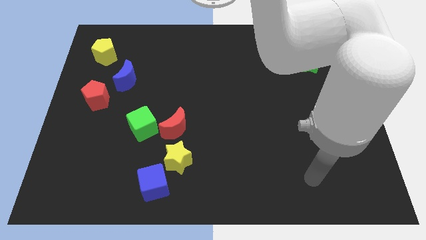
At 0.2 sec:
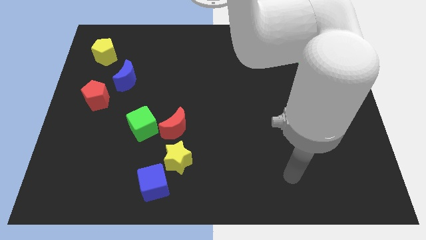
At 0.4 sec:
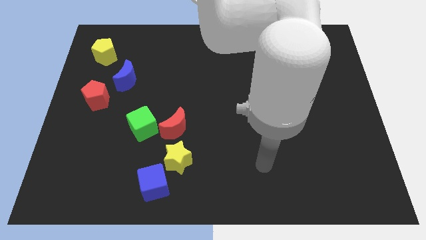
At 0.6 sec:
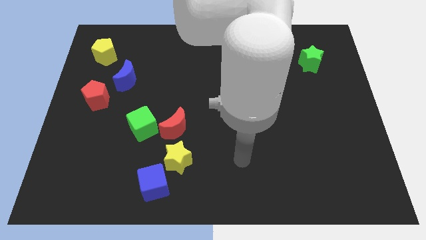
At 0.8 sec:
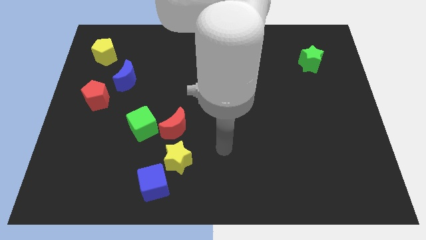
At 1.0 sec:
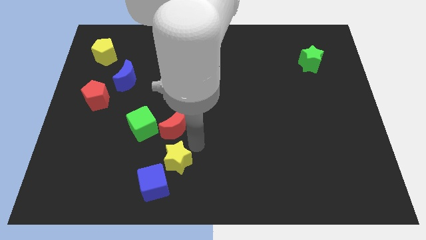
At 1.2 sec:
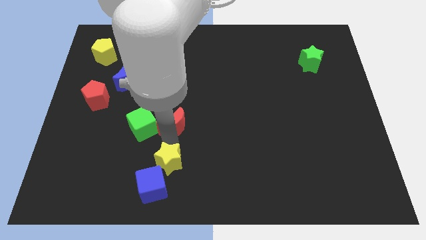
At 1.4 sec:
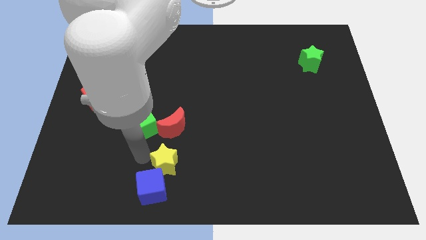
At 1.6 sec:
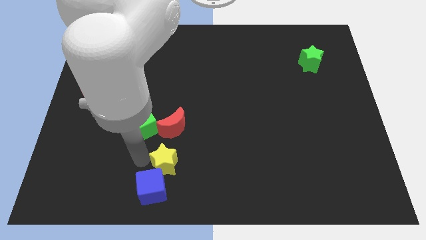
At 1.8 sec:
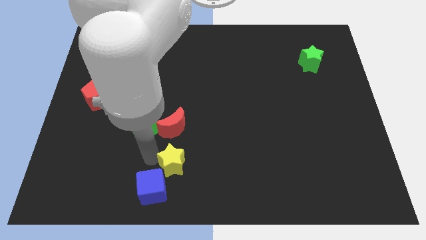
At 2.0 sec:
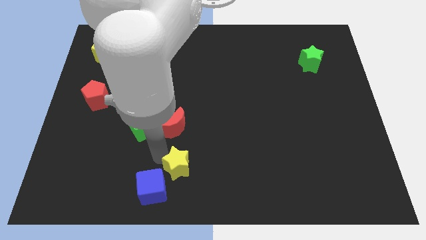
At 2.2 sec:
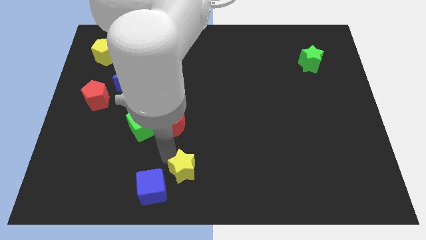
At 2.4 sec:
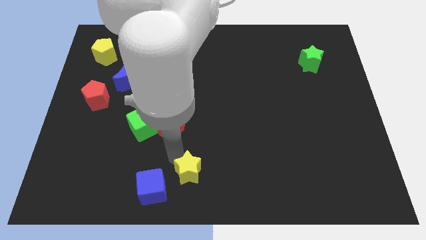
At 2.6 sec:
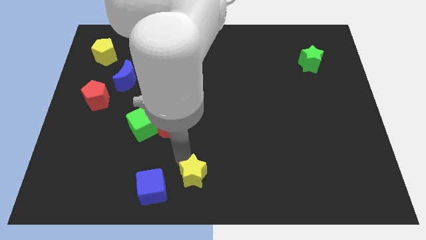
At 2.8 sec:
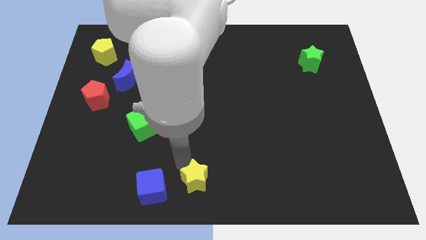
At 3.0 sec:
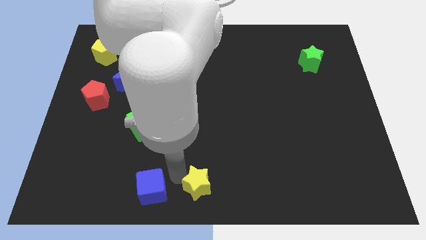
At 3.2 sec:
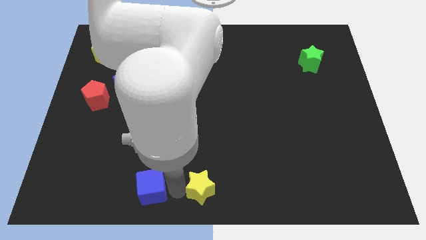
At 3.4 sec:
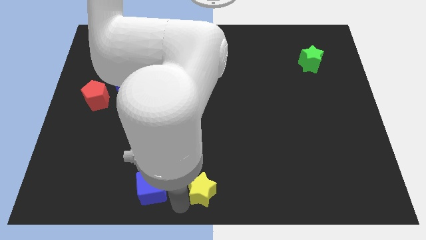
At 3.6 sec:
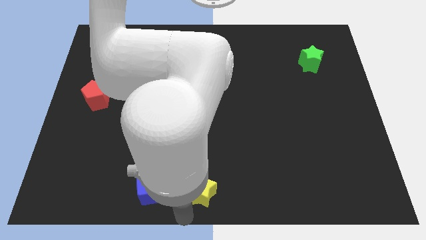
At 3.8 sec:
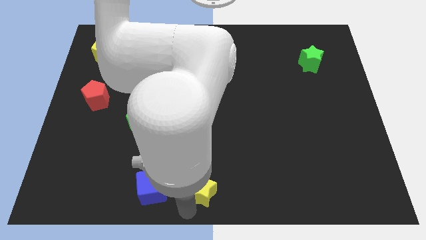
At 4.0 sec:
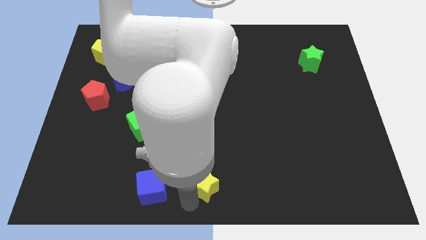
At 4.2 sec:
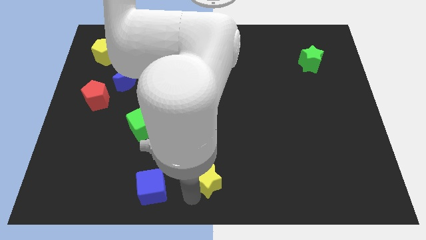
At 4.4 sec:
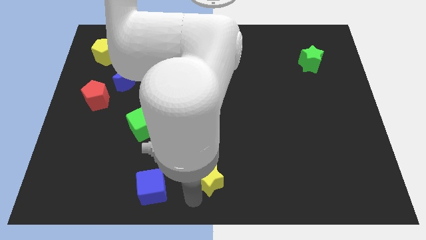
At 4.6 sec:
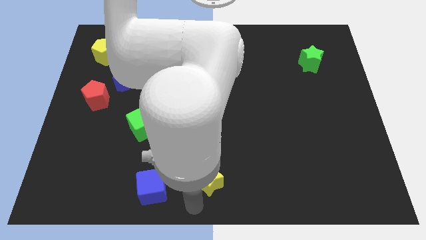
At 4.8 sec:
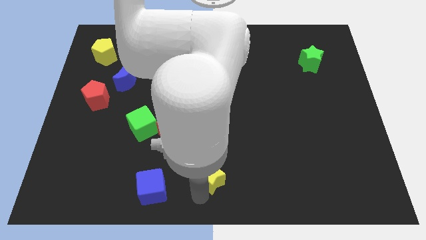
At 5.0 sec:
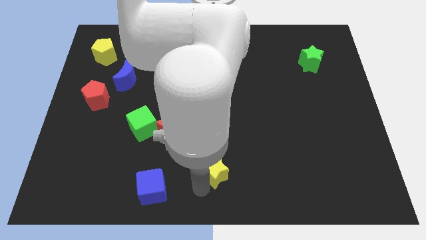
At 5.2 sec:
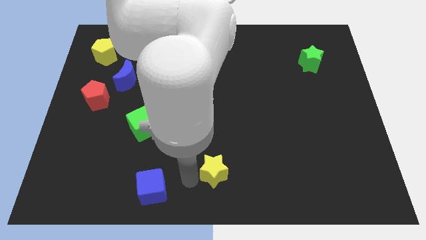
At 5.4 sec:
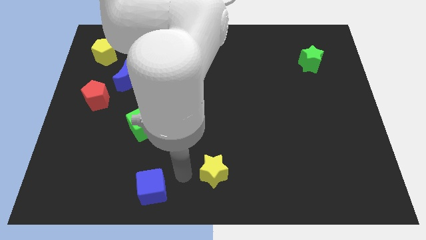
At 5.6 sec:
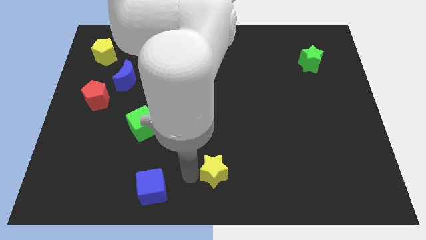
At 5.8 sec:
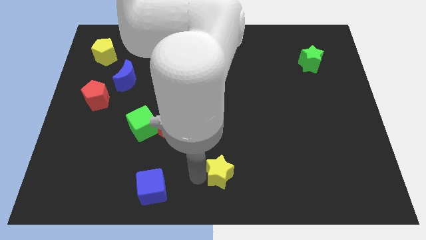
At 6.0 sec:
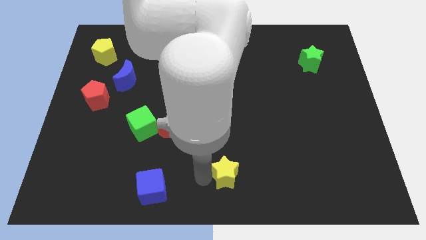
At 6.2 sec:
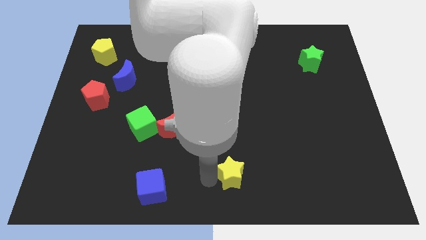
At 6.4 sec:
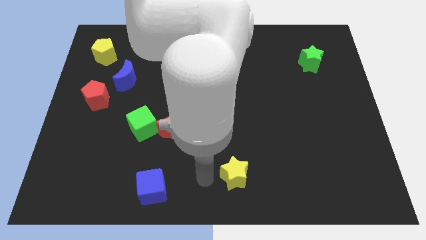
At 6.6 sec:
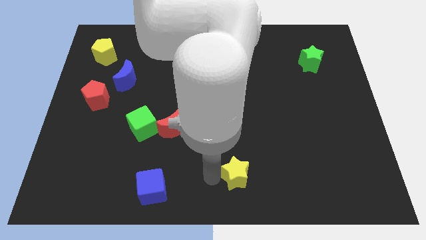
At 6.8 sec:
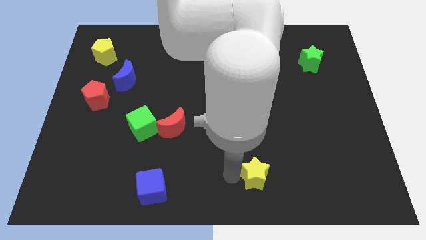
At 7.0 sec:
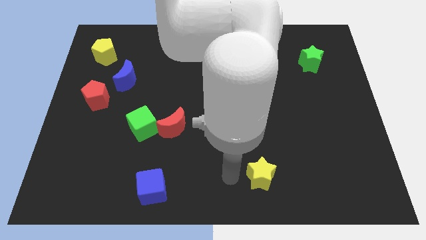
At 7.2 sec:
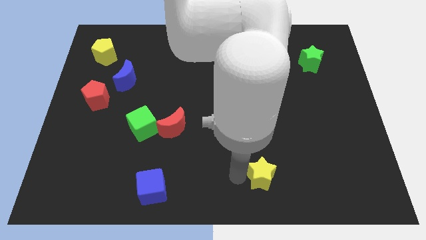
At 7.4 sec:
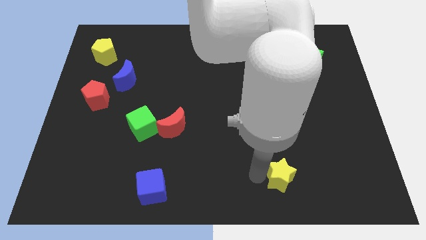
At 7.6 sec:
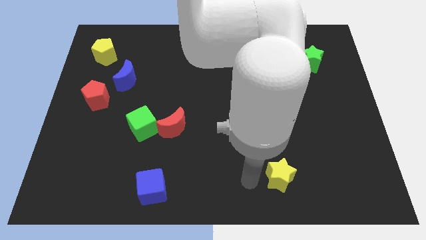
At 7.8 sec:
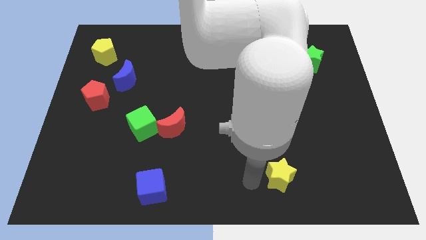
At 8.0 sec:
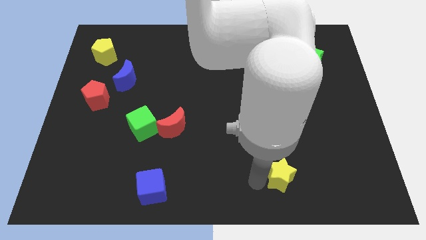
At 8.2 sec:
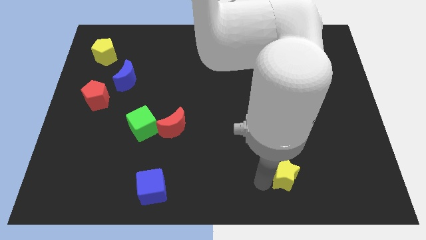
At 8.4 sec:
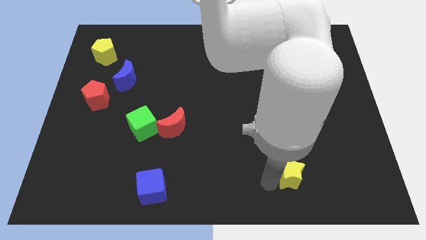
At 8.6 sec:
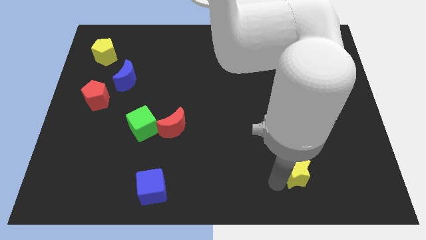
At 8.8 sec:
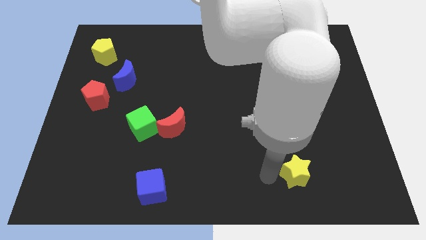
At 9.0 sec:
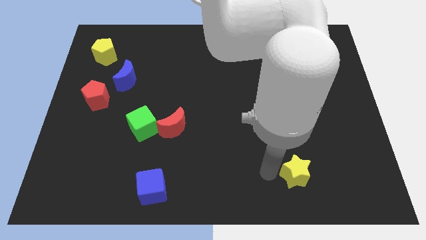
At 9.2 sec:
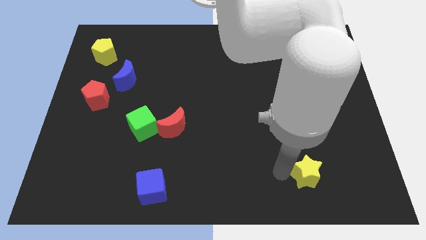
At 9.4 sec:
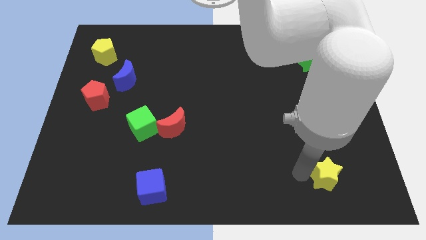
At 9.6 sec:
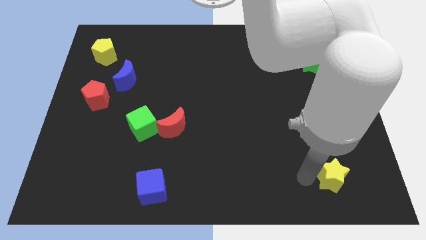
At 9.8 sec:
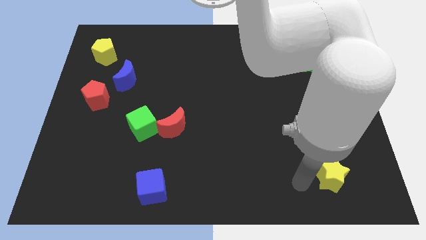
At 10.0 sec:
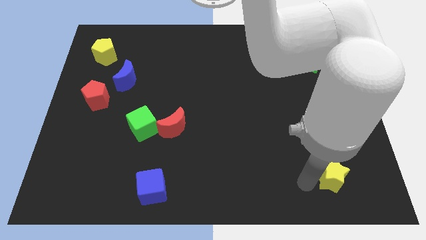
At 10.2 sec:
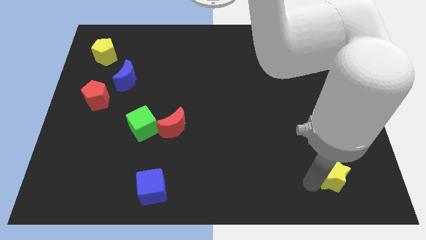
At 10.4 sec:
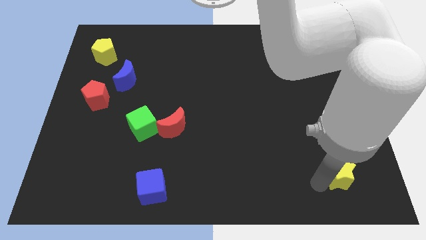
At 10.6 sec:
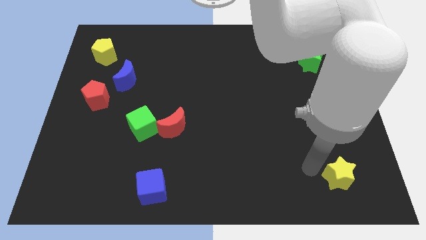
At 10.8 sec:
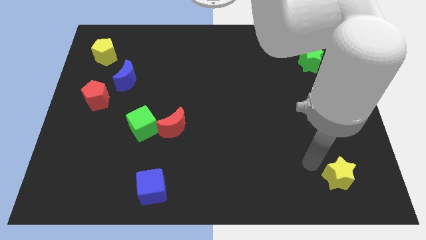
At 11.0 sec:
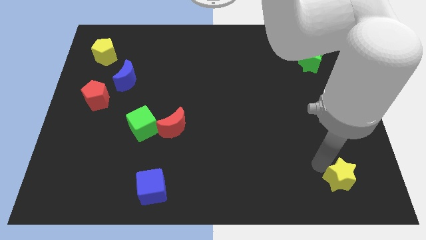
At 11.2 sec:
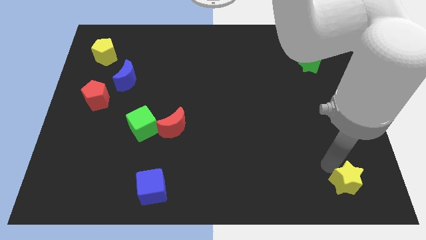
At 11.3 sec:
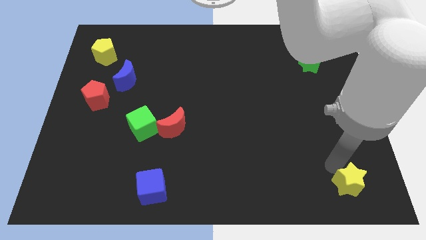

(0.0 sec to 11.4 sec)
put the yellow star to the lower right corner
